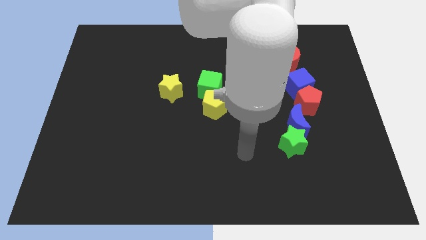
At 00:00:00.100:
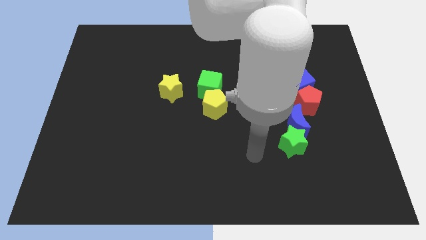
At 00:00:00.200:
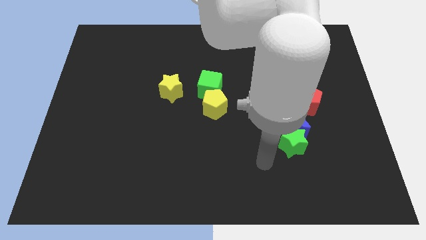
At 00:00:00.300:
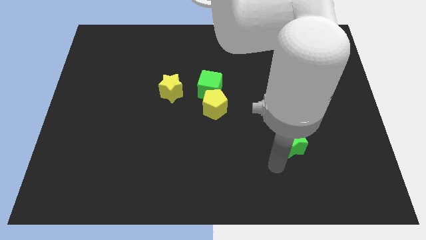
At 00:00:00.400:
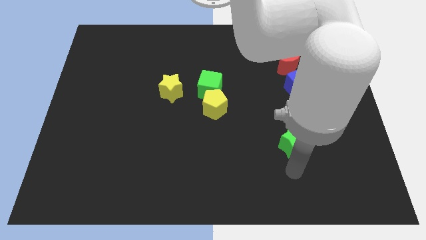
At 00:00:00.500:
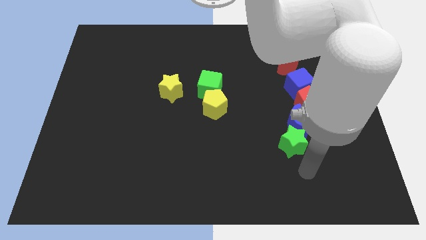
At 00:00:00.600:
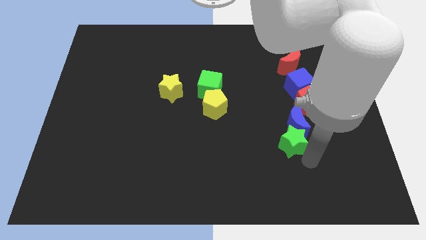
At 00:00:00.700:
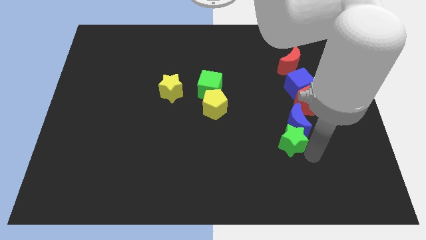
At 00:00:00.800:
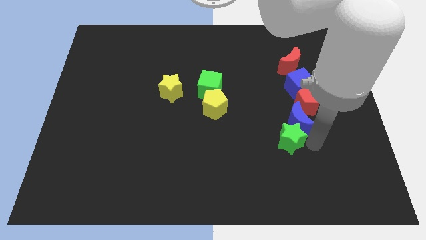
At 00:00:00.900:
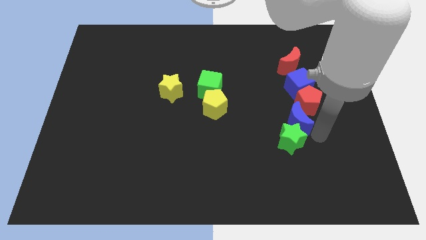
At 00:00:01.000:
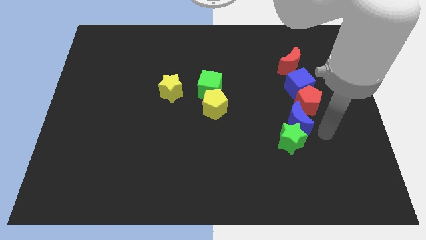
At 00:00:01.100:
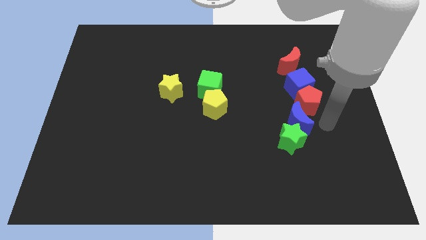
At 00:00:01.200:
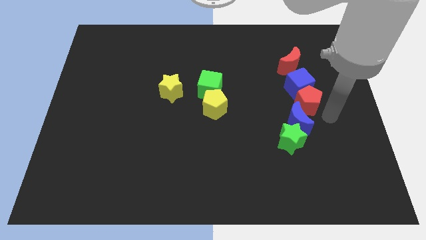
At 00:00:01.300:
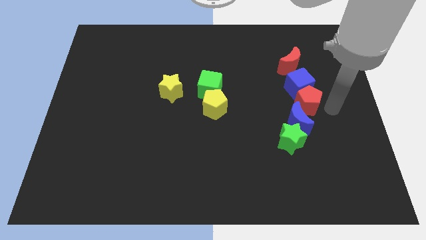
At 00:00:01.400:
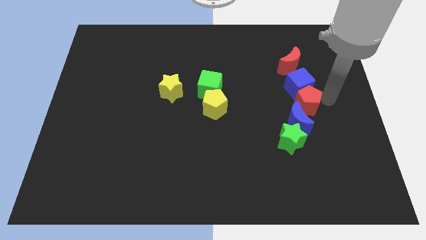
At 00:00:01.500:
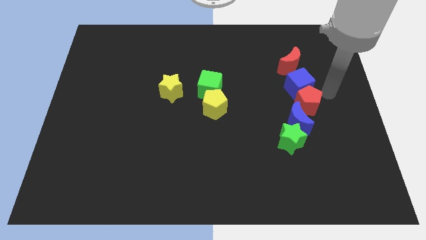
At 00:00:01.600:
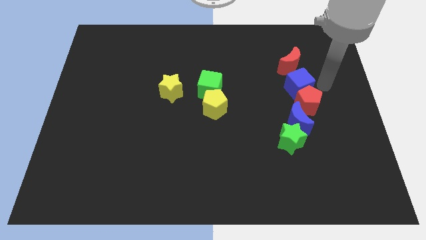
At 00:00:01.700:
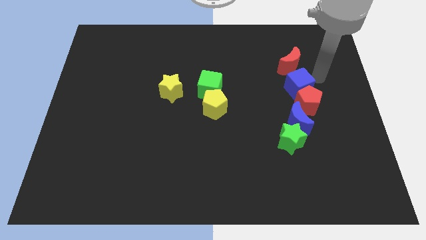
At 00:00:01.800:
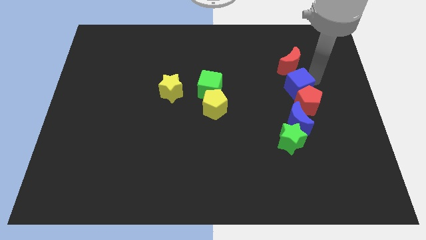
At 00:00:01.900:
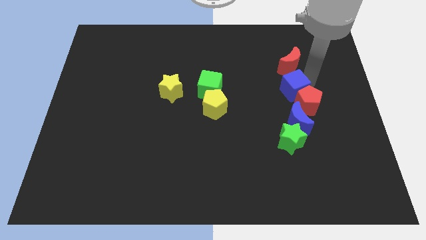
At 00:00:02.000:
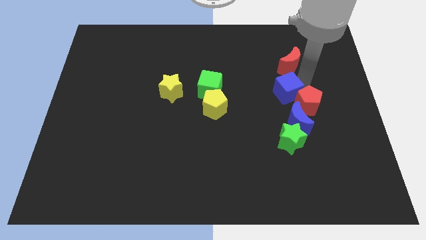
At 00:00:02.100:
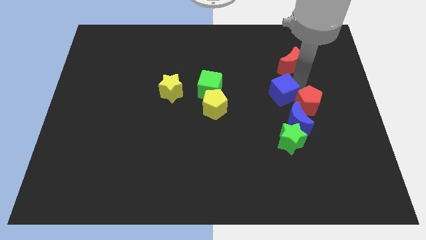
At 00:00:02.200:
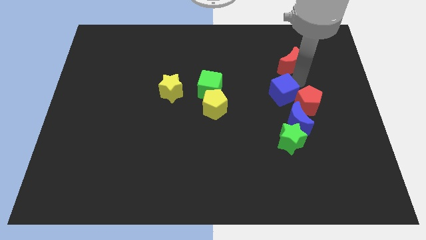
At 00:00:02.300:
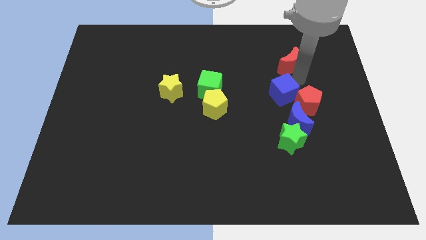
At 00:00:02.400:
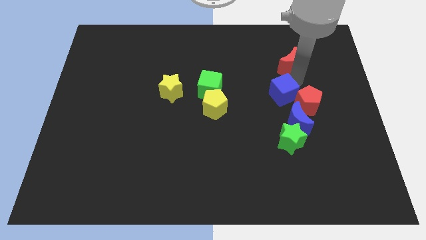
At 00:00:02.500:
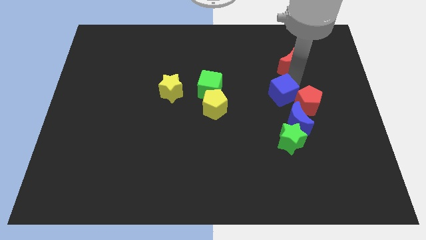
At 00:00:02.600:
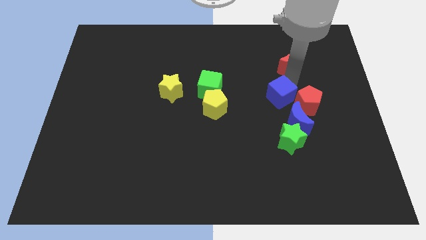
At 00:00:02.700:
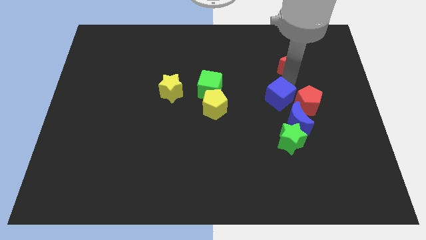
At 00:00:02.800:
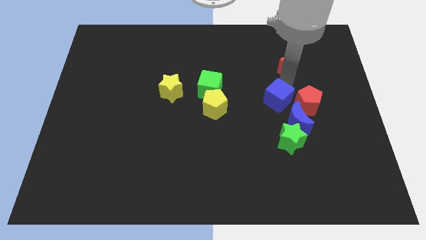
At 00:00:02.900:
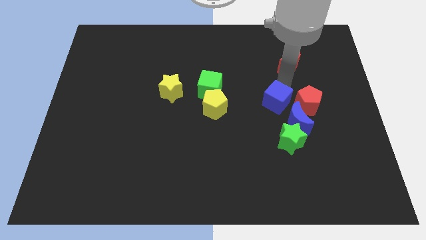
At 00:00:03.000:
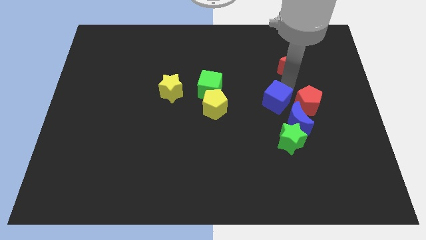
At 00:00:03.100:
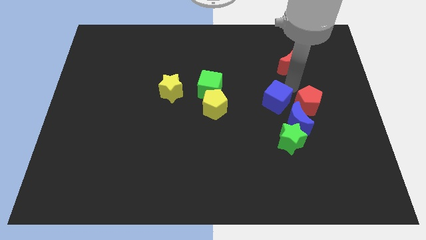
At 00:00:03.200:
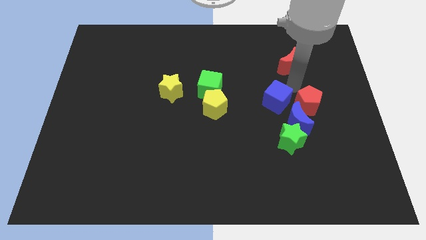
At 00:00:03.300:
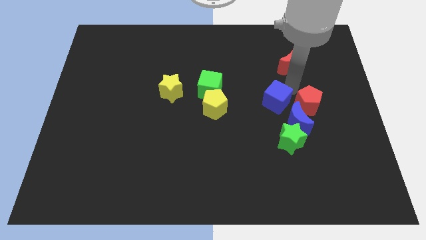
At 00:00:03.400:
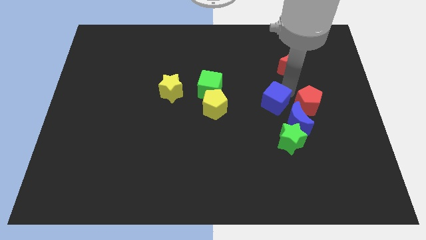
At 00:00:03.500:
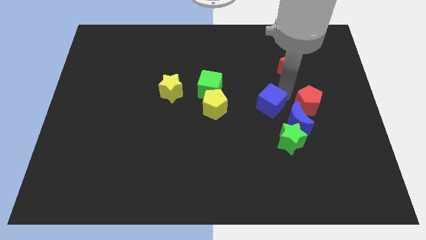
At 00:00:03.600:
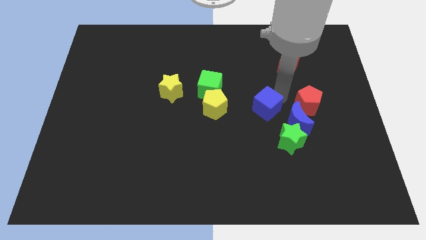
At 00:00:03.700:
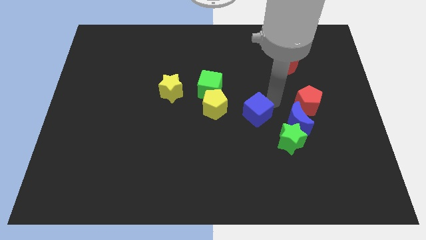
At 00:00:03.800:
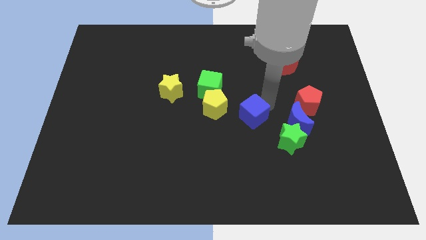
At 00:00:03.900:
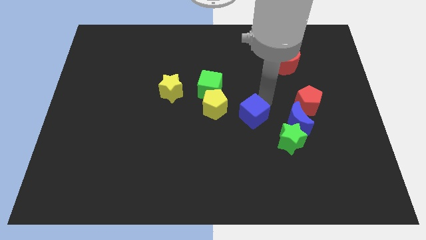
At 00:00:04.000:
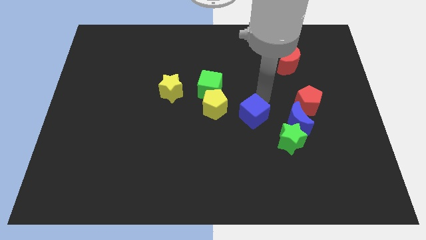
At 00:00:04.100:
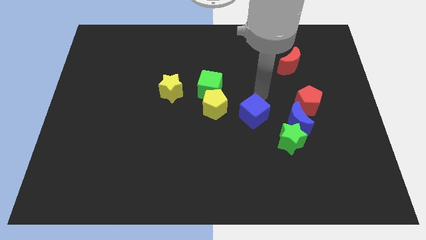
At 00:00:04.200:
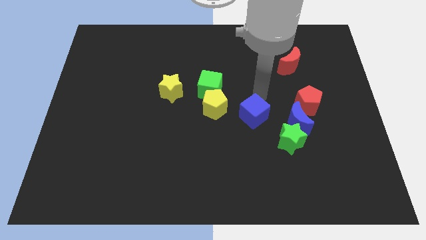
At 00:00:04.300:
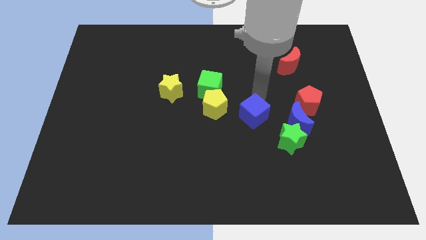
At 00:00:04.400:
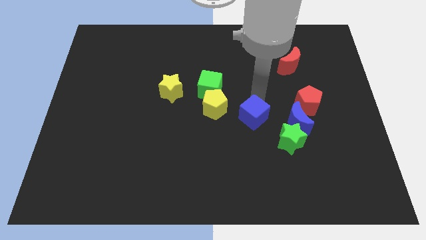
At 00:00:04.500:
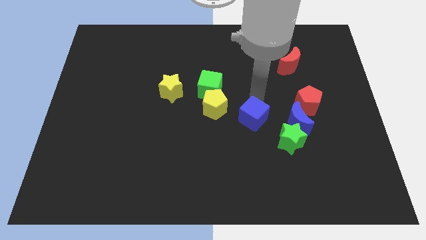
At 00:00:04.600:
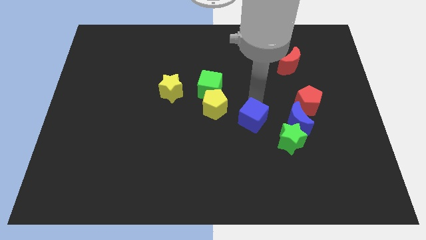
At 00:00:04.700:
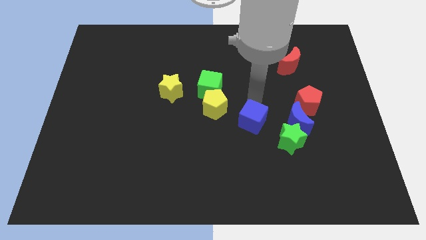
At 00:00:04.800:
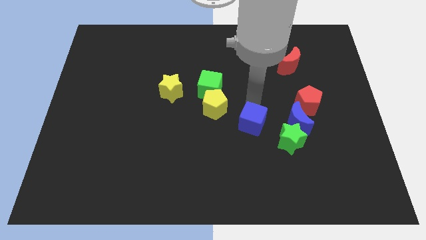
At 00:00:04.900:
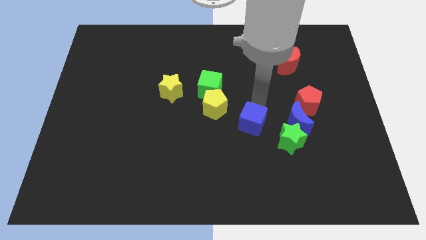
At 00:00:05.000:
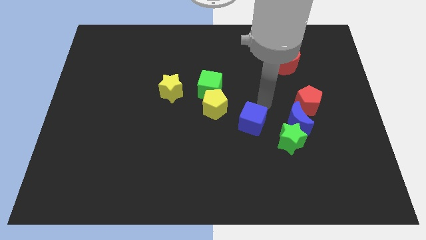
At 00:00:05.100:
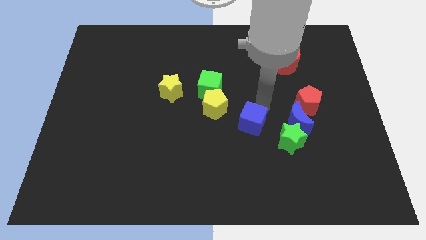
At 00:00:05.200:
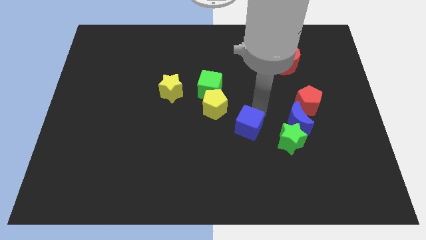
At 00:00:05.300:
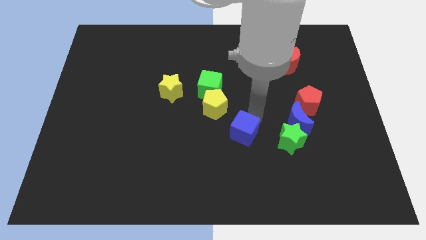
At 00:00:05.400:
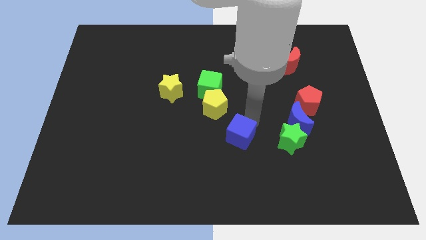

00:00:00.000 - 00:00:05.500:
slide the blue cube diagonally downwards and left

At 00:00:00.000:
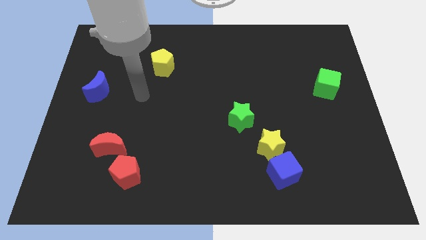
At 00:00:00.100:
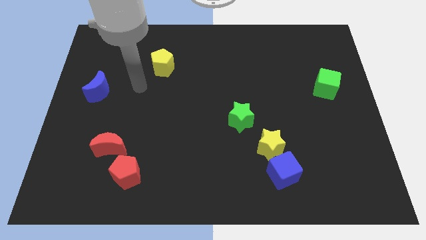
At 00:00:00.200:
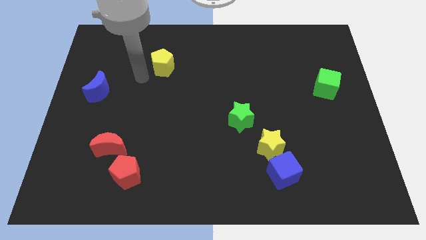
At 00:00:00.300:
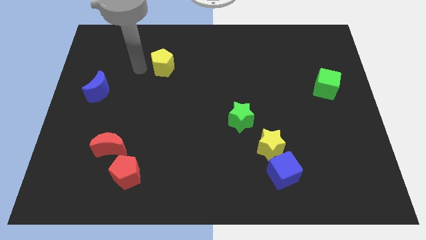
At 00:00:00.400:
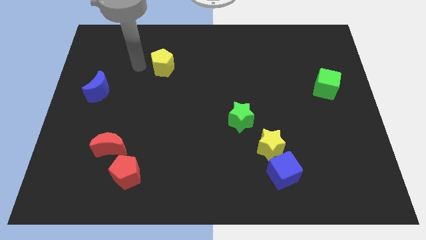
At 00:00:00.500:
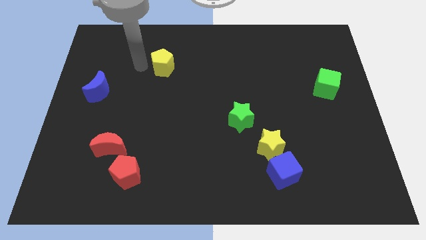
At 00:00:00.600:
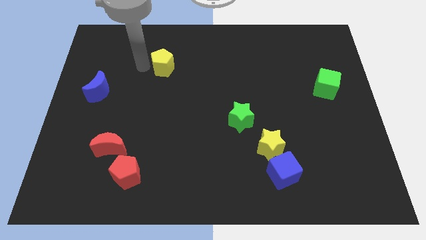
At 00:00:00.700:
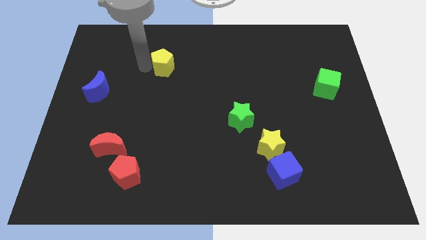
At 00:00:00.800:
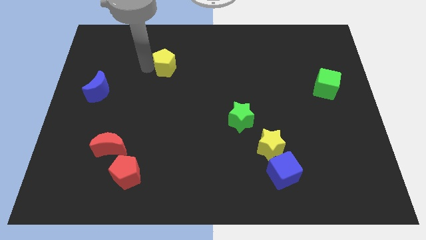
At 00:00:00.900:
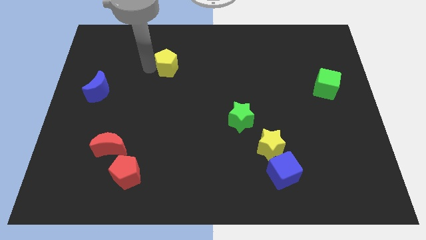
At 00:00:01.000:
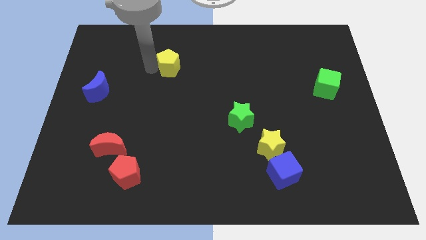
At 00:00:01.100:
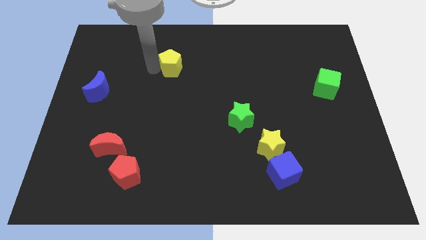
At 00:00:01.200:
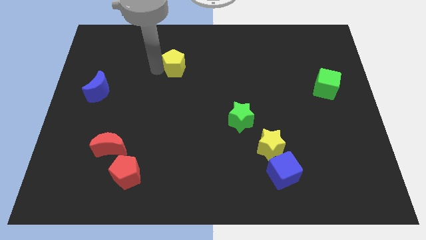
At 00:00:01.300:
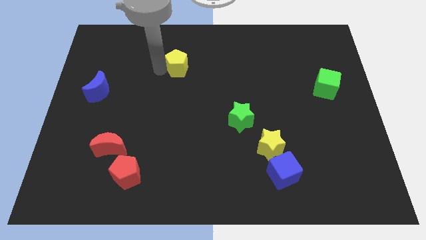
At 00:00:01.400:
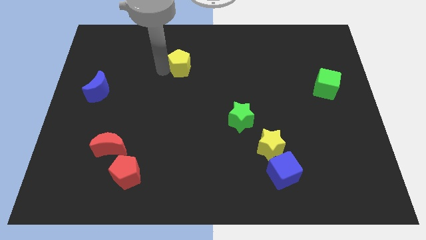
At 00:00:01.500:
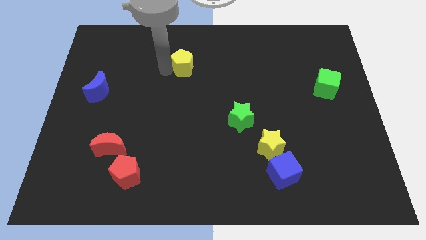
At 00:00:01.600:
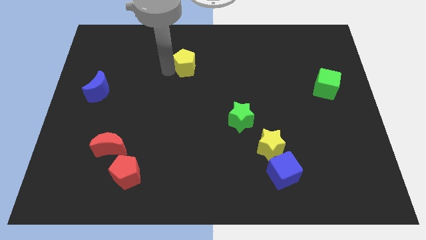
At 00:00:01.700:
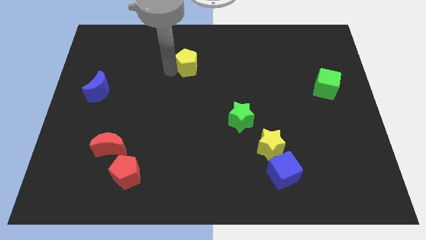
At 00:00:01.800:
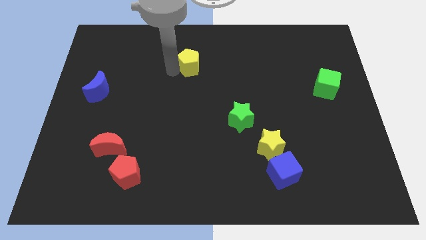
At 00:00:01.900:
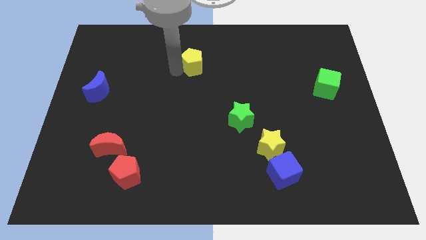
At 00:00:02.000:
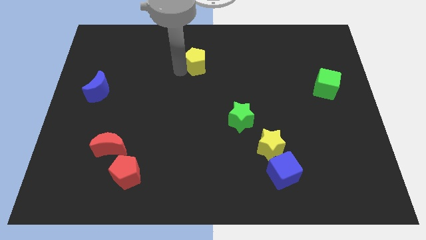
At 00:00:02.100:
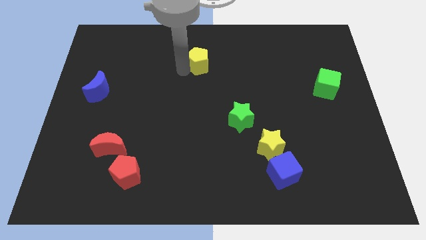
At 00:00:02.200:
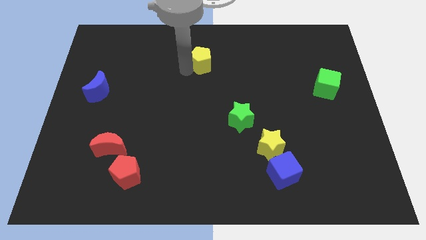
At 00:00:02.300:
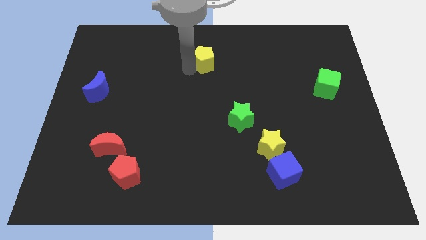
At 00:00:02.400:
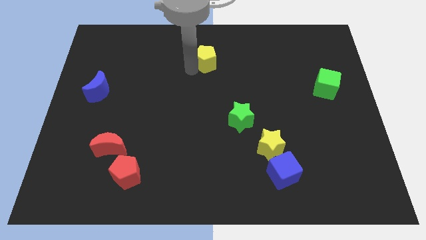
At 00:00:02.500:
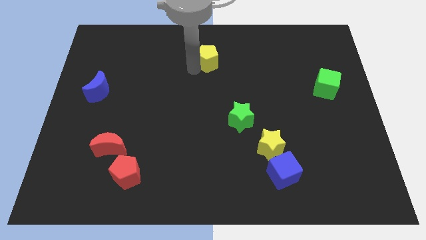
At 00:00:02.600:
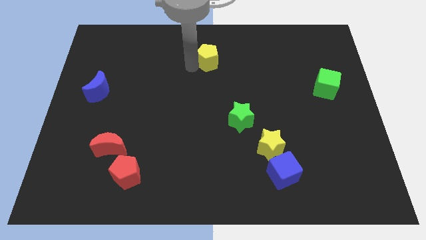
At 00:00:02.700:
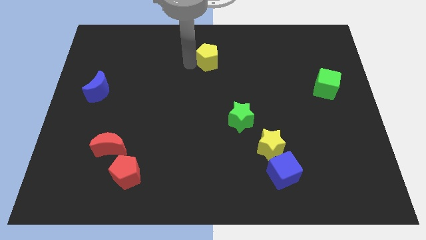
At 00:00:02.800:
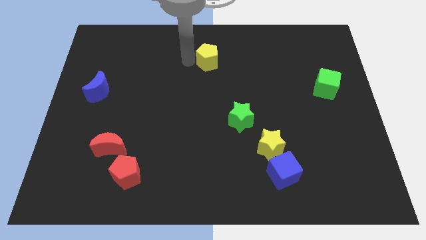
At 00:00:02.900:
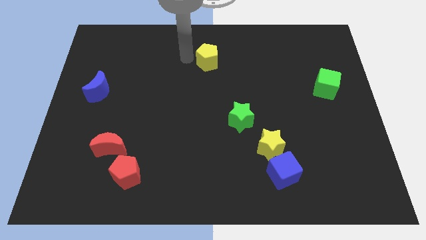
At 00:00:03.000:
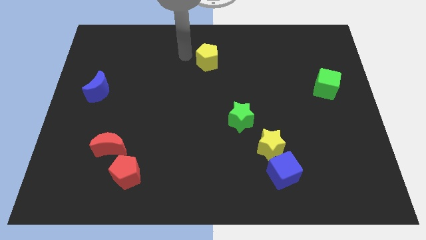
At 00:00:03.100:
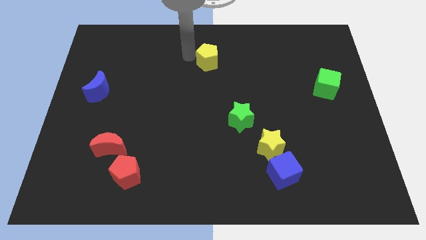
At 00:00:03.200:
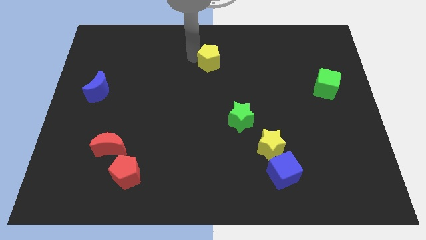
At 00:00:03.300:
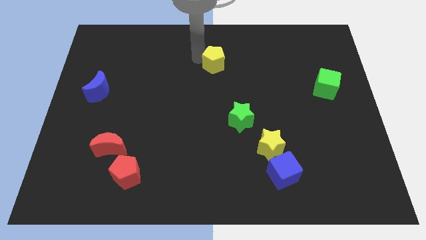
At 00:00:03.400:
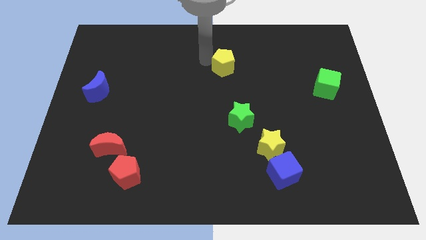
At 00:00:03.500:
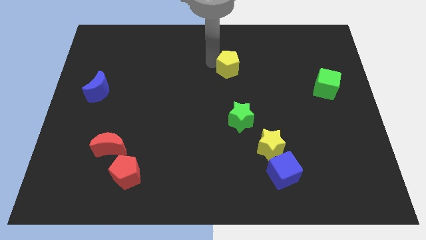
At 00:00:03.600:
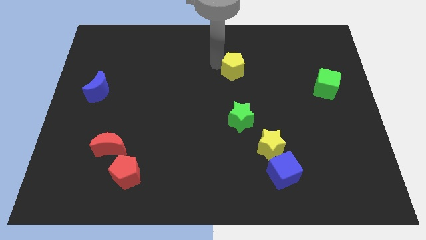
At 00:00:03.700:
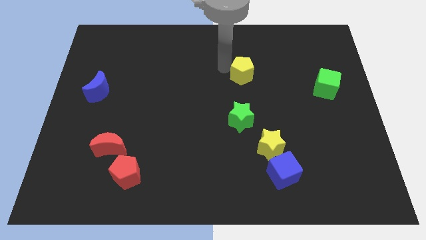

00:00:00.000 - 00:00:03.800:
slide the yellow pentagon to the right
